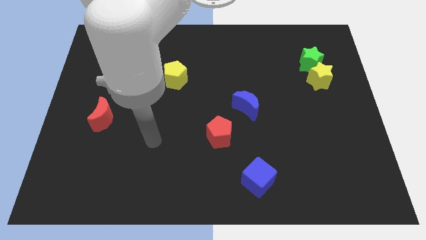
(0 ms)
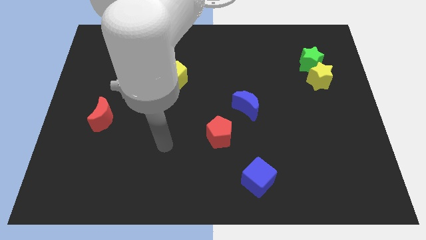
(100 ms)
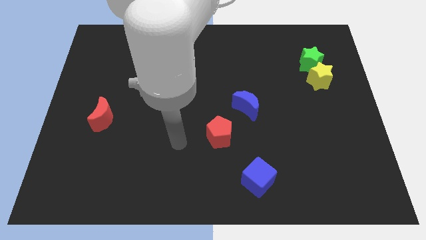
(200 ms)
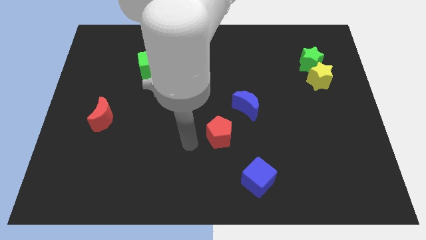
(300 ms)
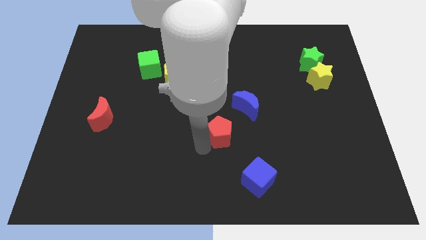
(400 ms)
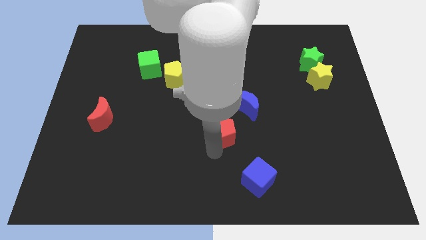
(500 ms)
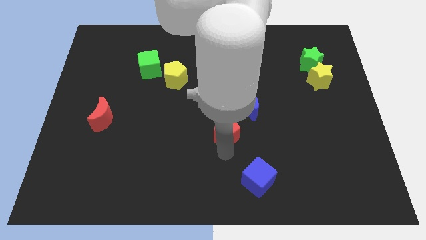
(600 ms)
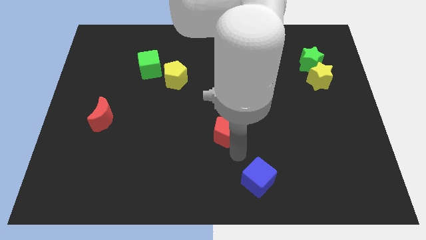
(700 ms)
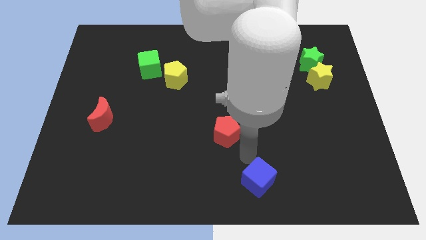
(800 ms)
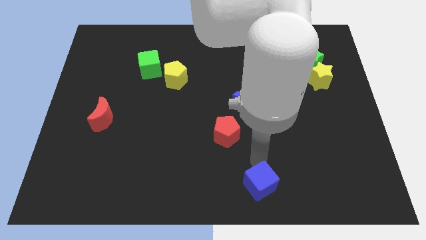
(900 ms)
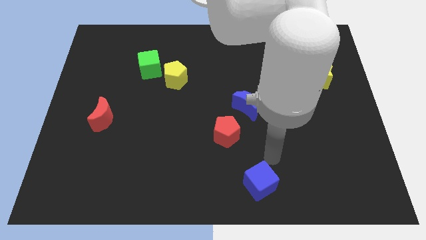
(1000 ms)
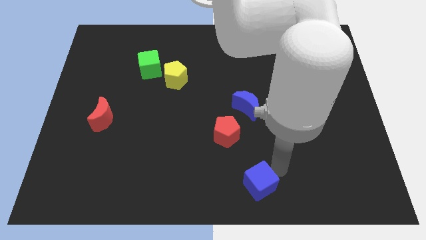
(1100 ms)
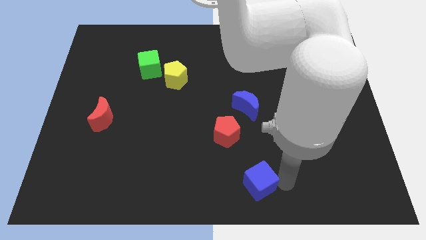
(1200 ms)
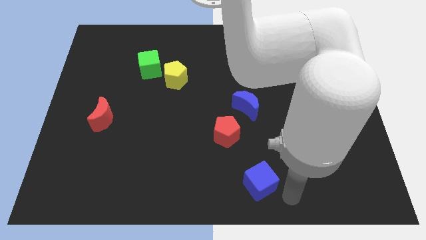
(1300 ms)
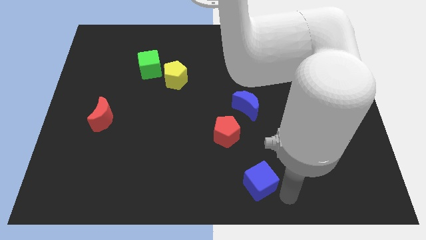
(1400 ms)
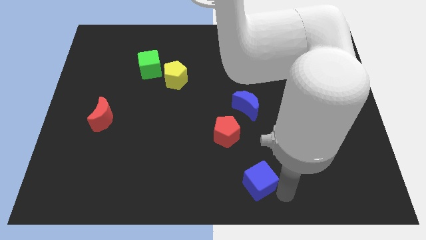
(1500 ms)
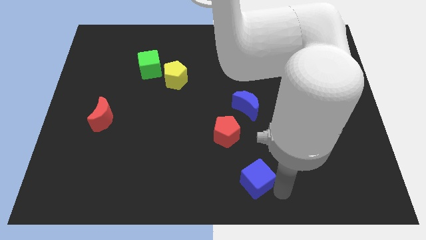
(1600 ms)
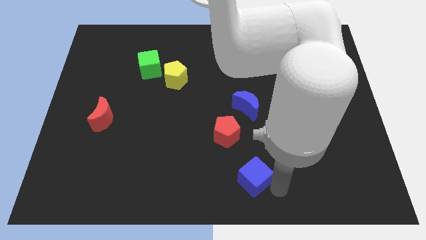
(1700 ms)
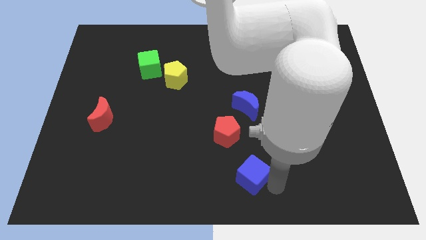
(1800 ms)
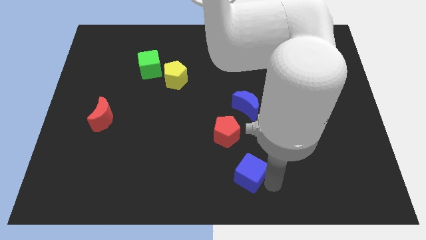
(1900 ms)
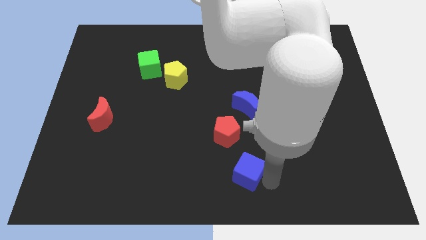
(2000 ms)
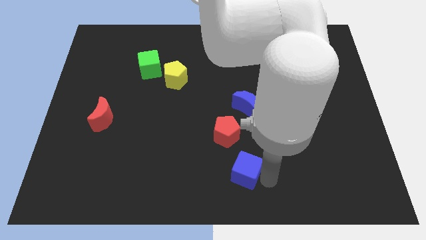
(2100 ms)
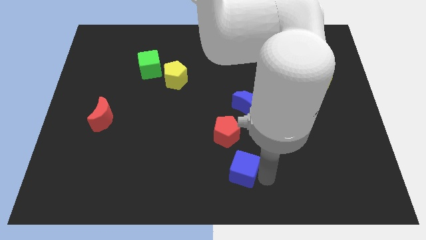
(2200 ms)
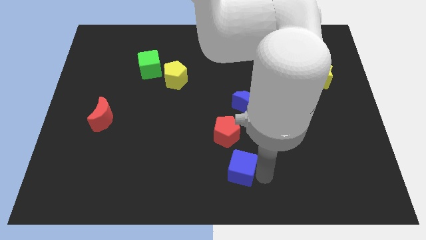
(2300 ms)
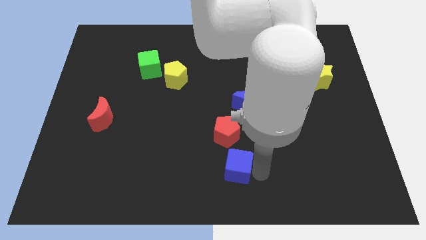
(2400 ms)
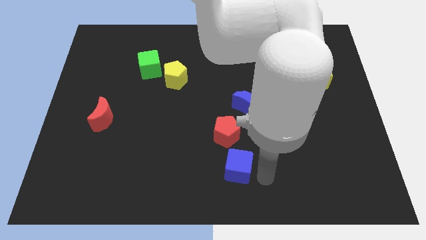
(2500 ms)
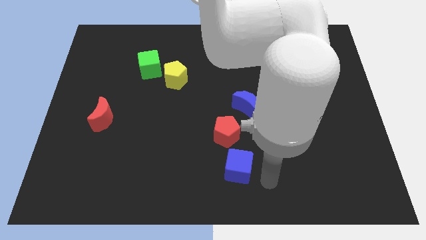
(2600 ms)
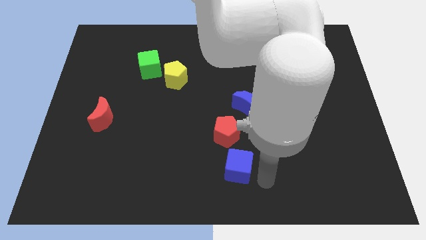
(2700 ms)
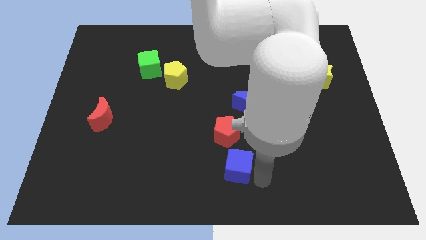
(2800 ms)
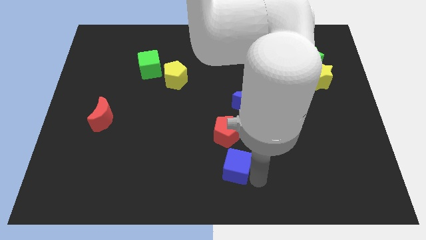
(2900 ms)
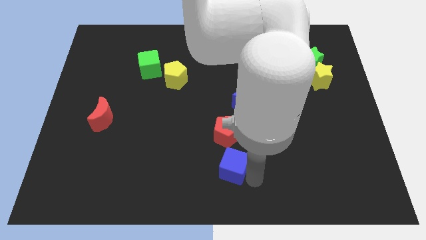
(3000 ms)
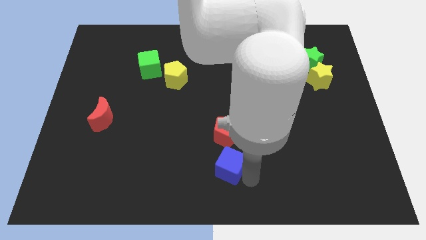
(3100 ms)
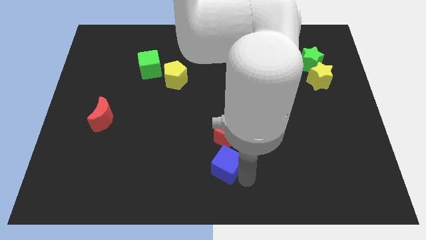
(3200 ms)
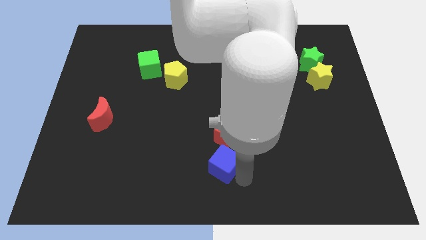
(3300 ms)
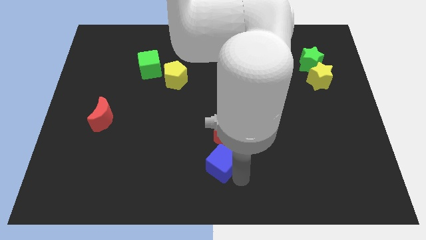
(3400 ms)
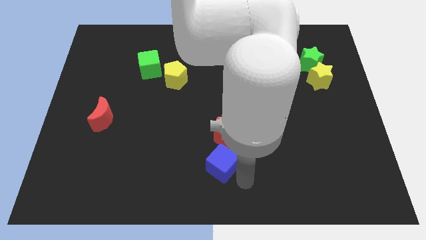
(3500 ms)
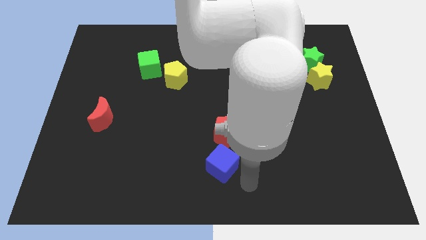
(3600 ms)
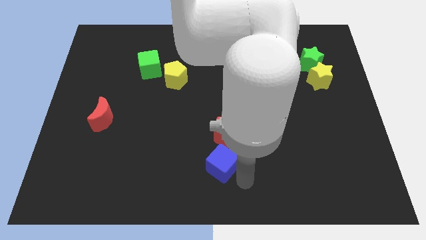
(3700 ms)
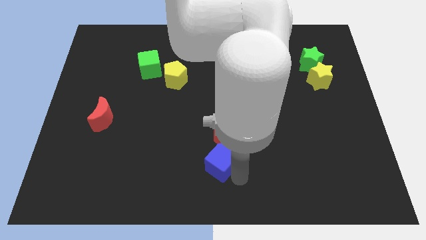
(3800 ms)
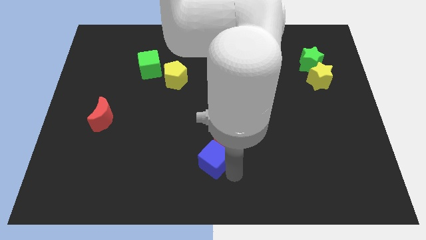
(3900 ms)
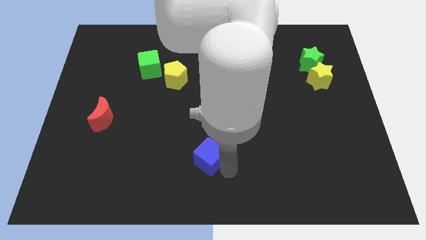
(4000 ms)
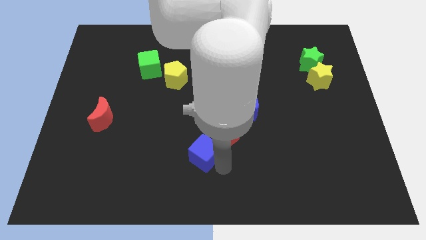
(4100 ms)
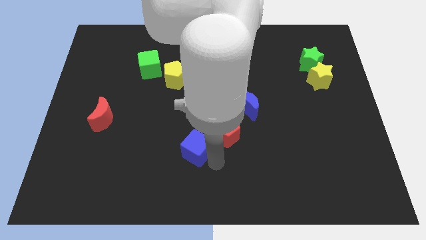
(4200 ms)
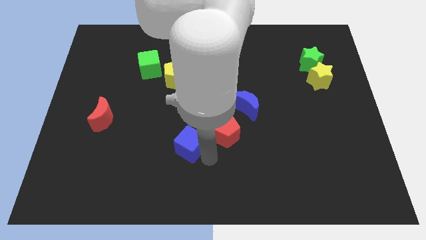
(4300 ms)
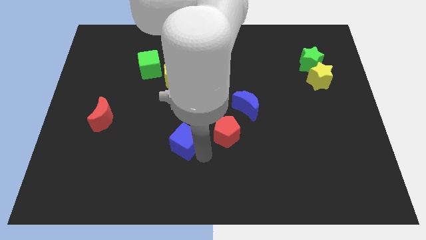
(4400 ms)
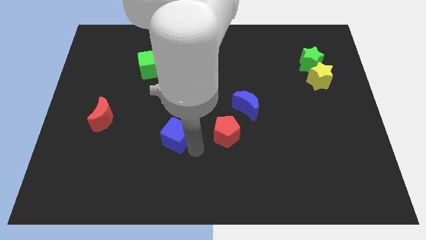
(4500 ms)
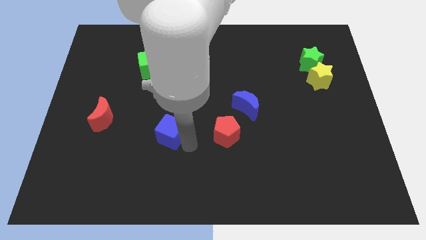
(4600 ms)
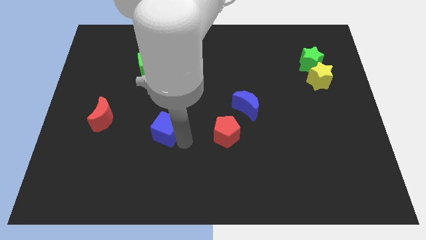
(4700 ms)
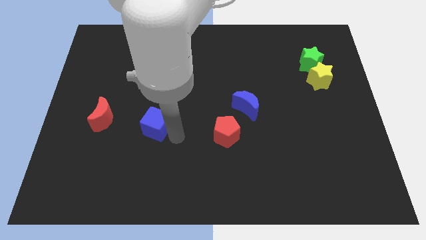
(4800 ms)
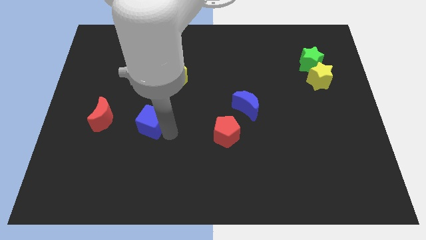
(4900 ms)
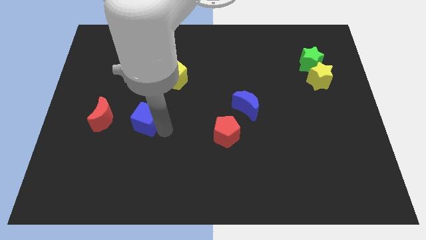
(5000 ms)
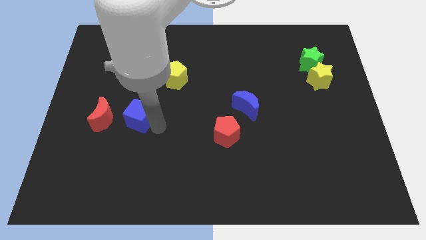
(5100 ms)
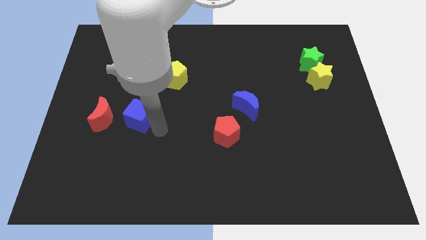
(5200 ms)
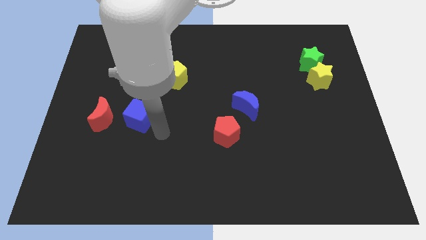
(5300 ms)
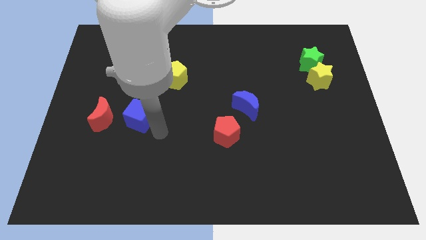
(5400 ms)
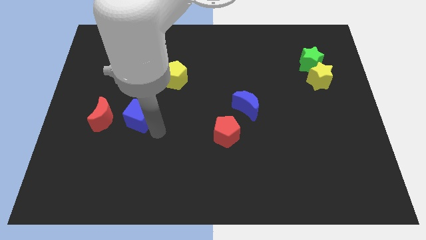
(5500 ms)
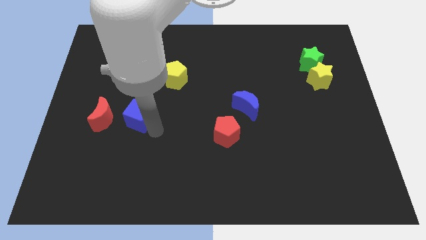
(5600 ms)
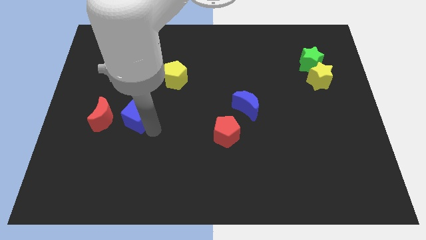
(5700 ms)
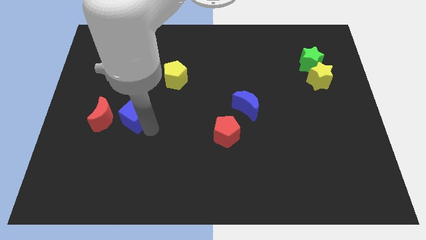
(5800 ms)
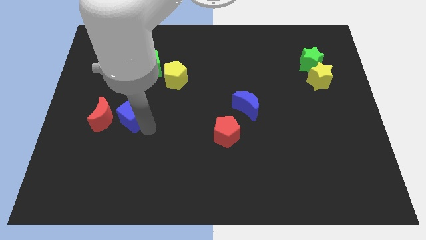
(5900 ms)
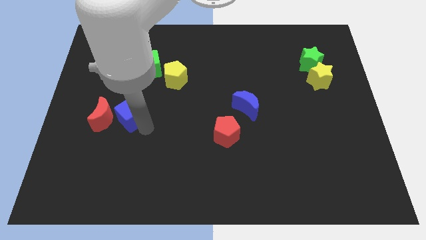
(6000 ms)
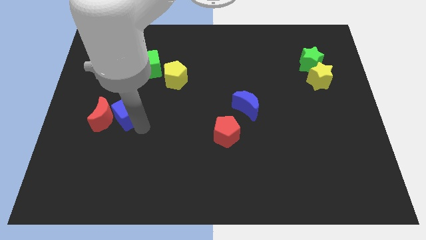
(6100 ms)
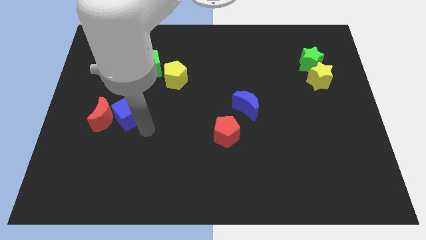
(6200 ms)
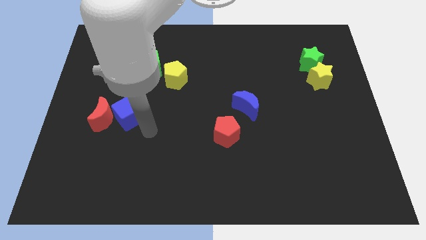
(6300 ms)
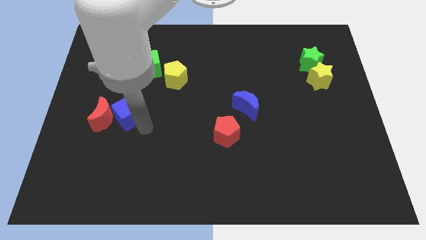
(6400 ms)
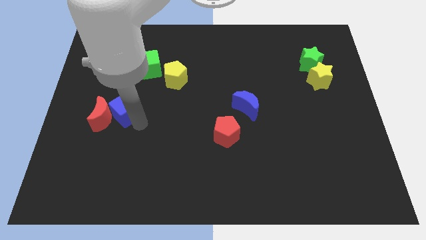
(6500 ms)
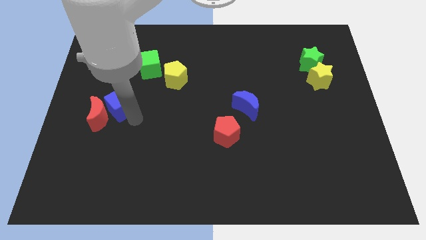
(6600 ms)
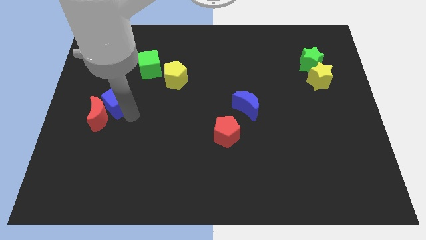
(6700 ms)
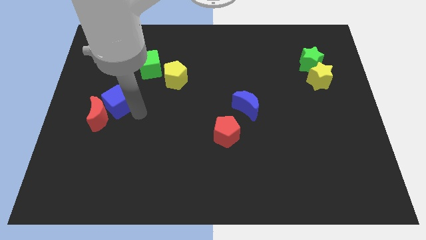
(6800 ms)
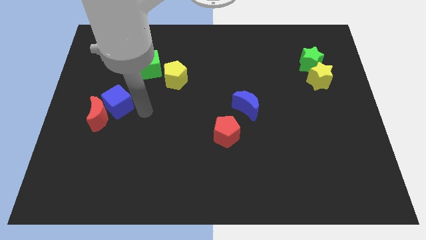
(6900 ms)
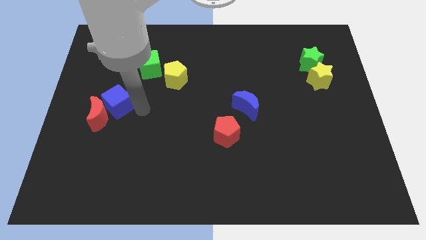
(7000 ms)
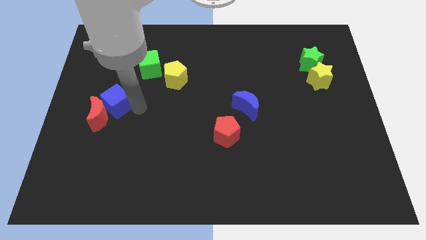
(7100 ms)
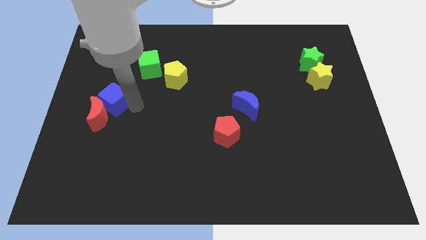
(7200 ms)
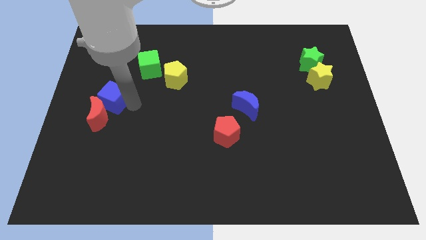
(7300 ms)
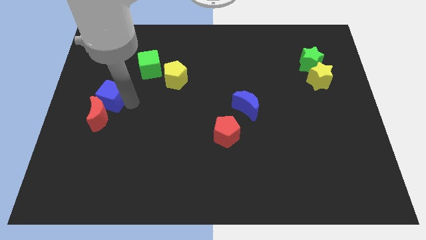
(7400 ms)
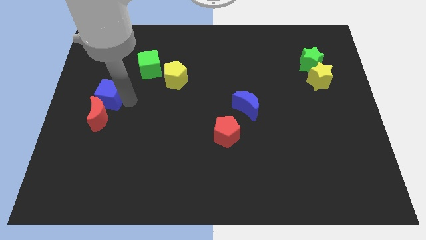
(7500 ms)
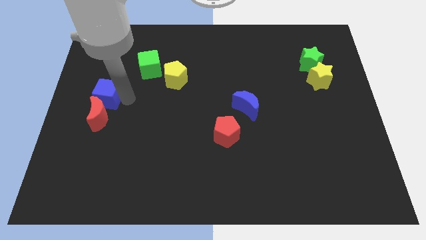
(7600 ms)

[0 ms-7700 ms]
put the blue cube to the left side of the board
